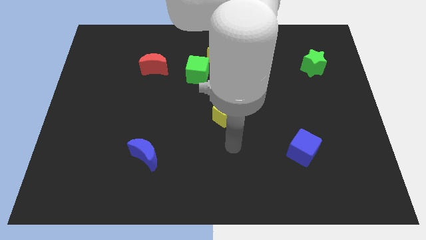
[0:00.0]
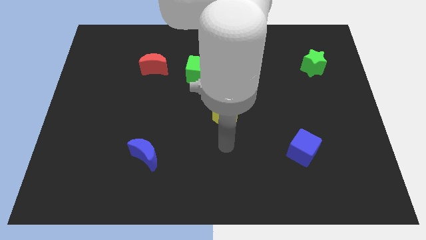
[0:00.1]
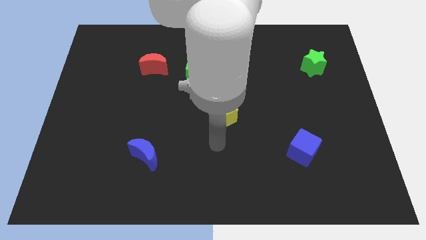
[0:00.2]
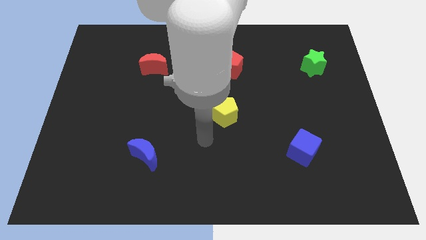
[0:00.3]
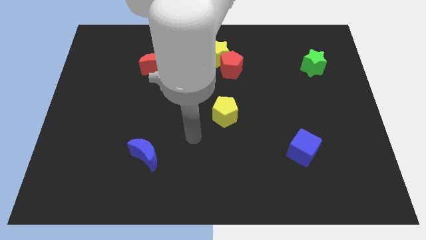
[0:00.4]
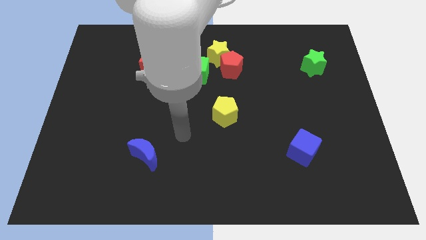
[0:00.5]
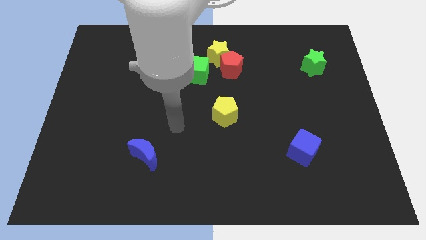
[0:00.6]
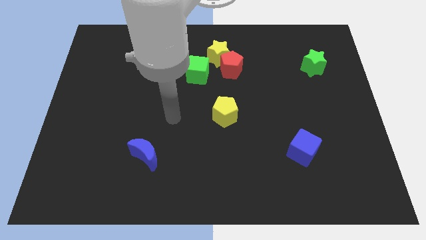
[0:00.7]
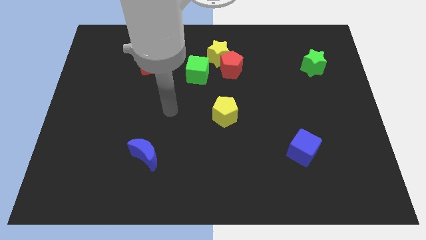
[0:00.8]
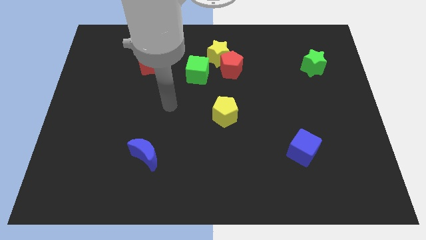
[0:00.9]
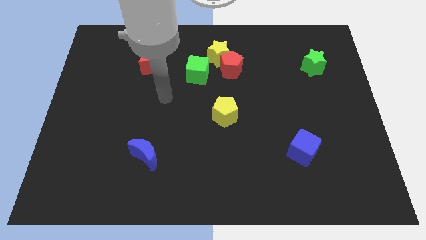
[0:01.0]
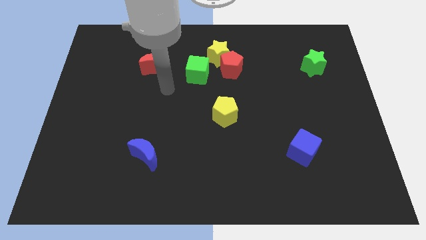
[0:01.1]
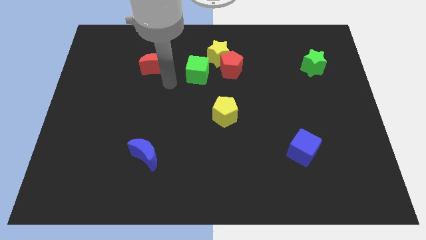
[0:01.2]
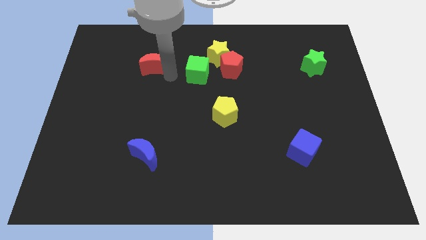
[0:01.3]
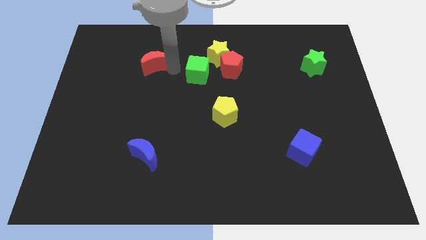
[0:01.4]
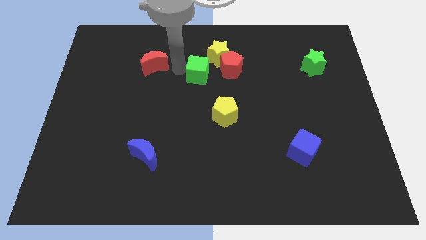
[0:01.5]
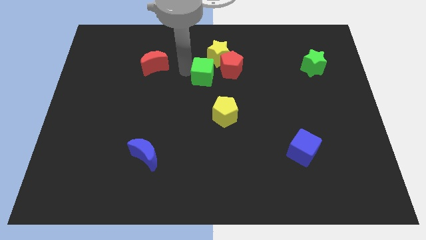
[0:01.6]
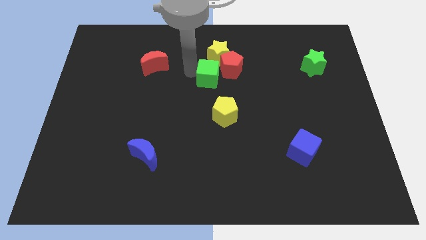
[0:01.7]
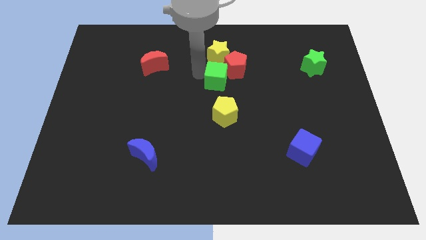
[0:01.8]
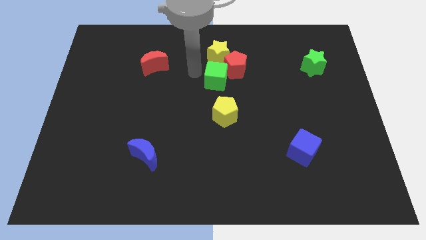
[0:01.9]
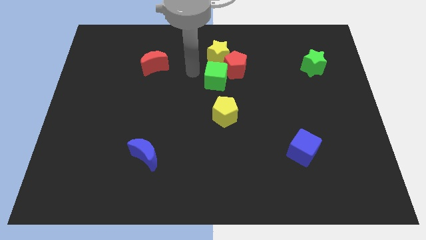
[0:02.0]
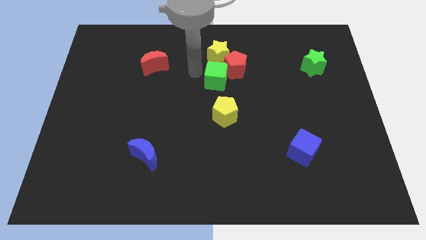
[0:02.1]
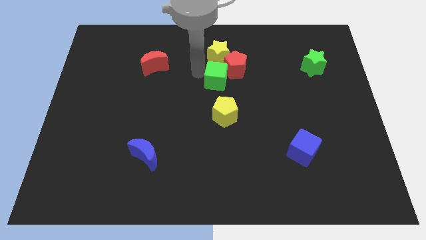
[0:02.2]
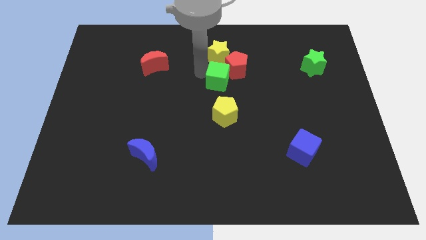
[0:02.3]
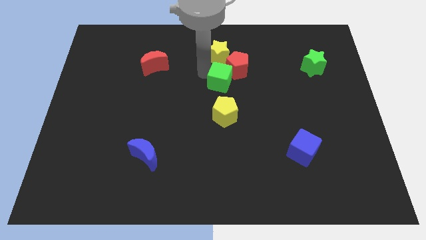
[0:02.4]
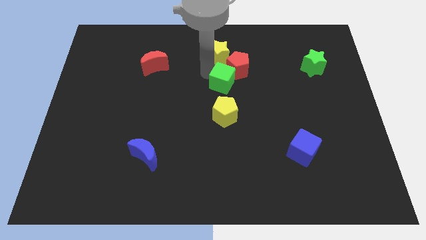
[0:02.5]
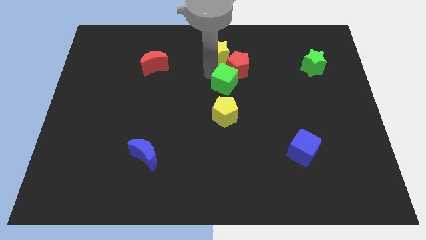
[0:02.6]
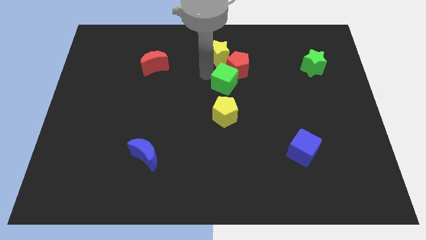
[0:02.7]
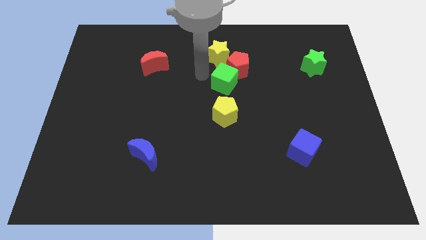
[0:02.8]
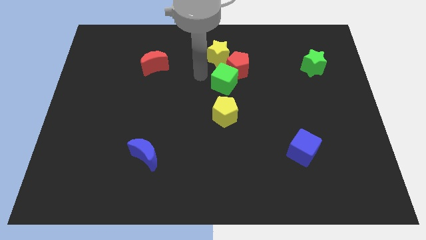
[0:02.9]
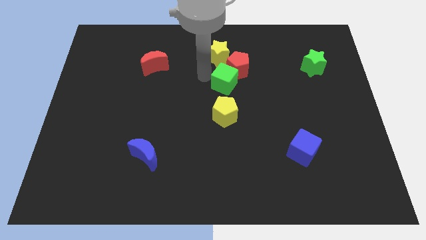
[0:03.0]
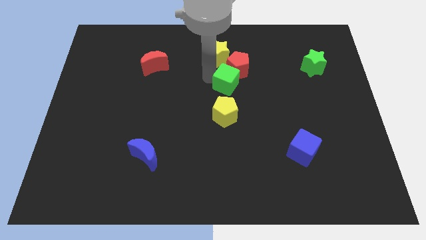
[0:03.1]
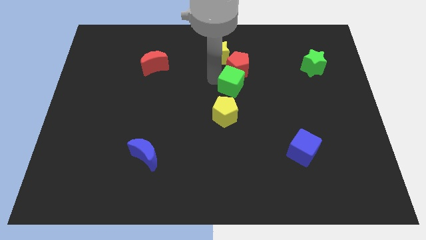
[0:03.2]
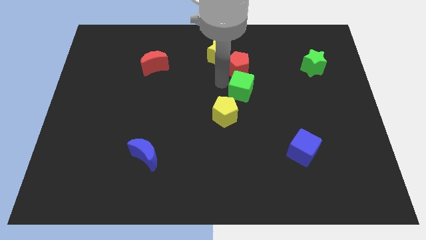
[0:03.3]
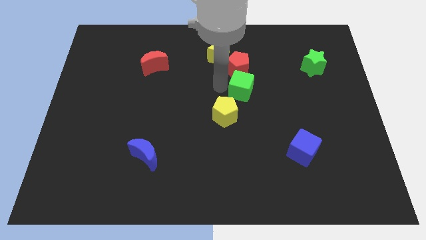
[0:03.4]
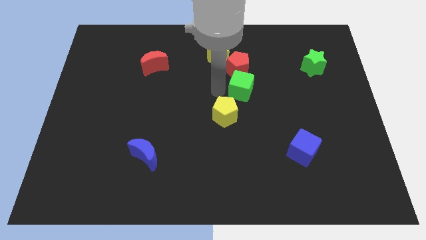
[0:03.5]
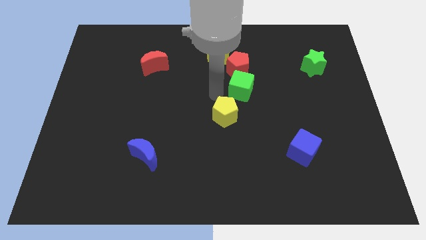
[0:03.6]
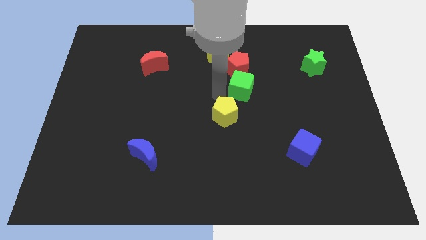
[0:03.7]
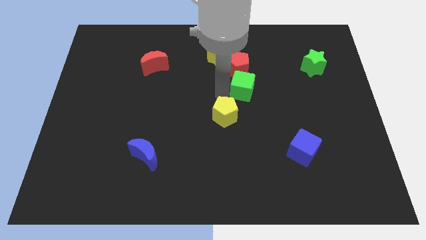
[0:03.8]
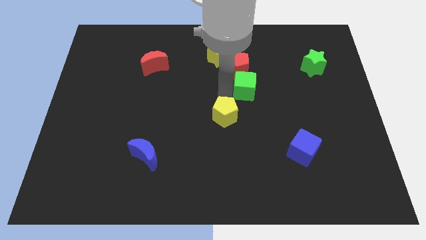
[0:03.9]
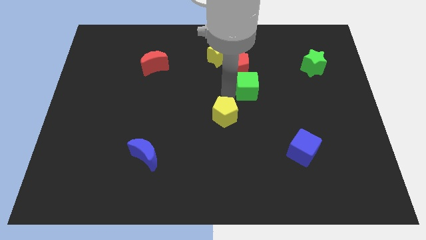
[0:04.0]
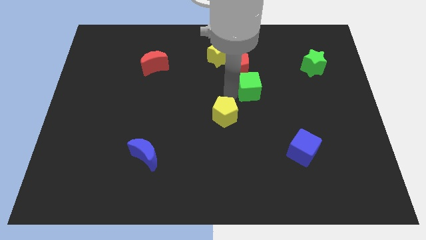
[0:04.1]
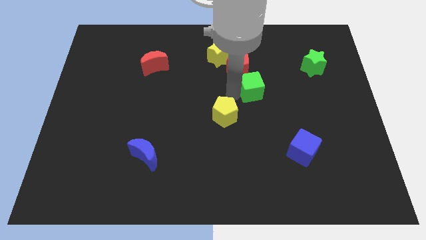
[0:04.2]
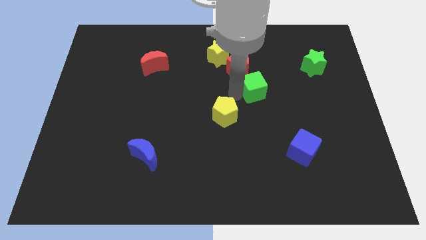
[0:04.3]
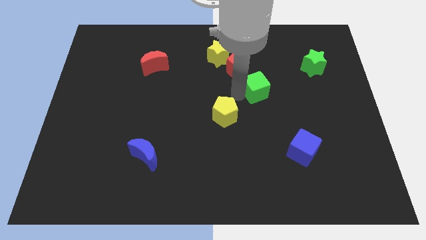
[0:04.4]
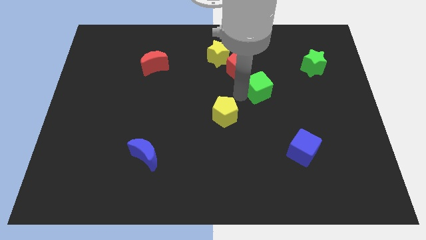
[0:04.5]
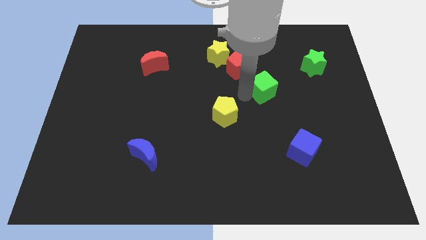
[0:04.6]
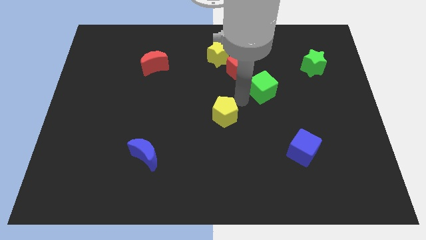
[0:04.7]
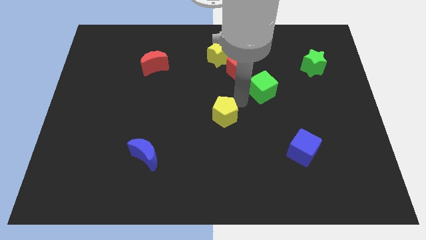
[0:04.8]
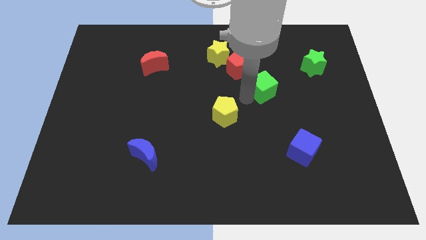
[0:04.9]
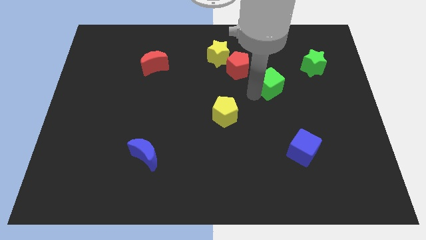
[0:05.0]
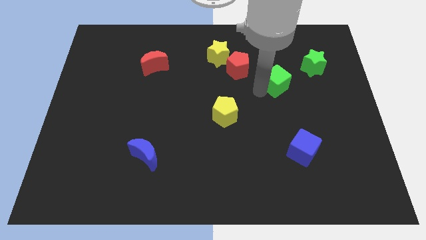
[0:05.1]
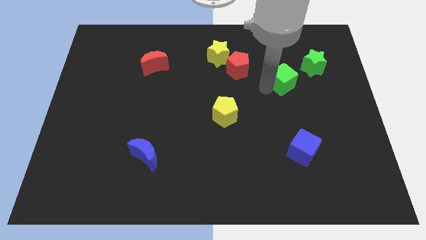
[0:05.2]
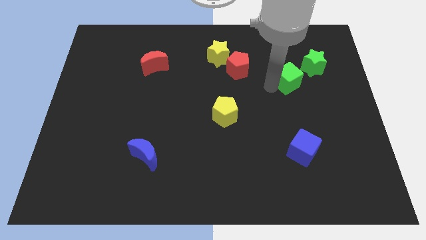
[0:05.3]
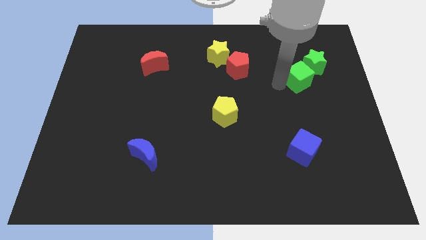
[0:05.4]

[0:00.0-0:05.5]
move the green cube next to the green star

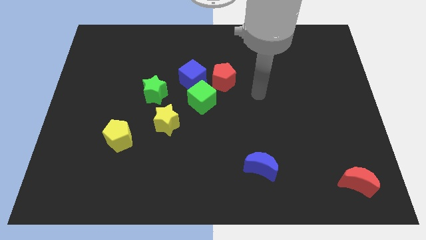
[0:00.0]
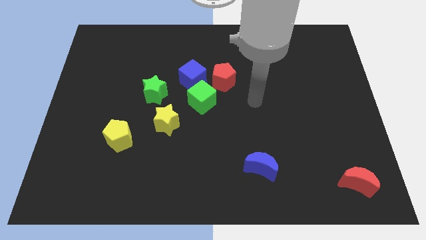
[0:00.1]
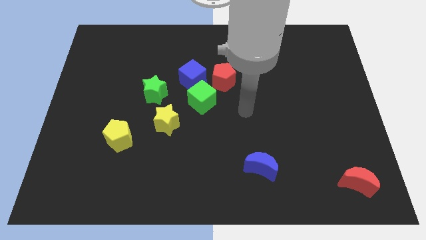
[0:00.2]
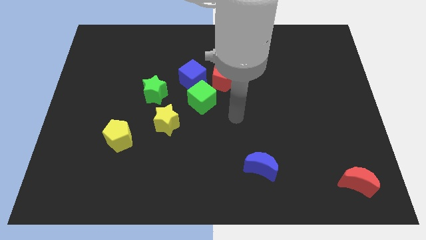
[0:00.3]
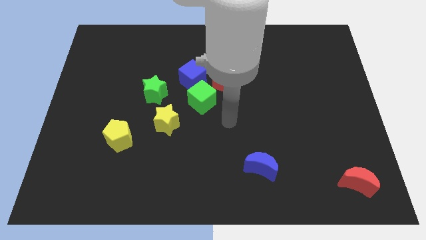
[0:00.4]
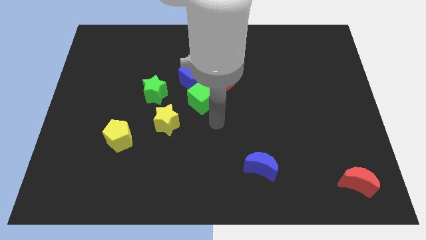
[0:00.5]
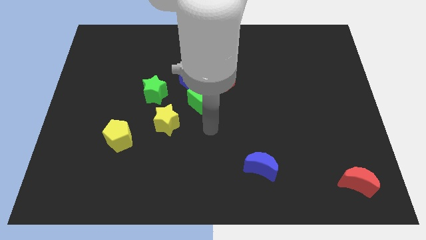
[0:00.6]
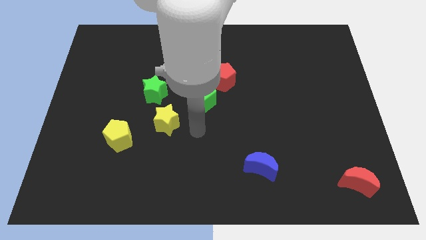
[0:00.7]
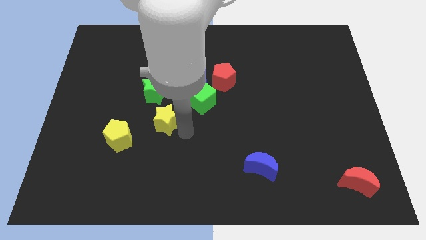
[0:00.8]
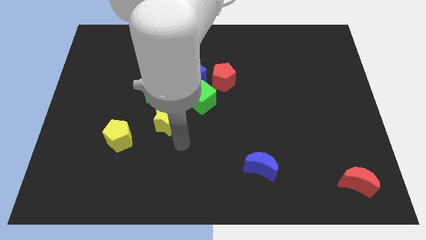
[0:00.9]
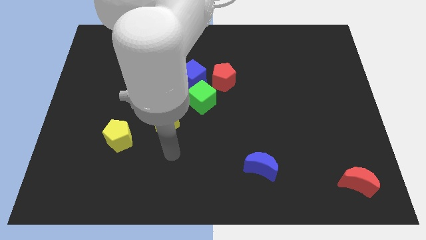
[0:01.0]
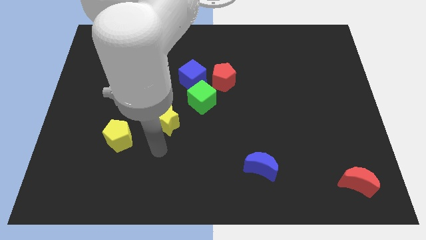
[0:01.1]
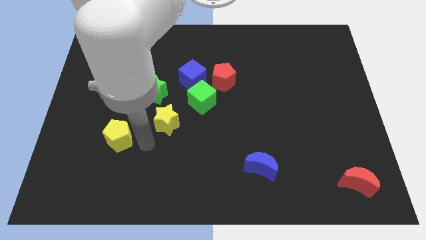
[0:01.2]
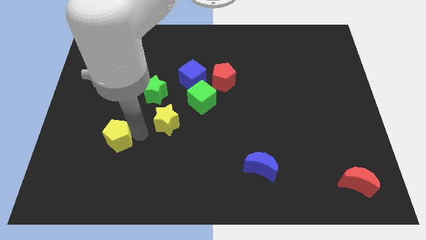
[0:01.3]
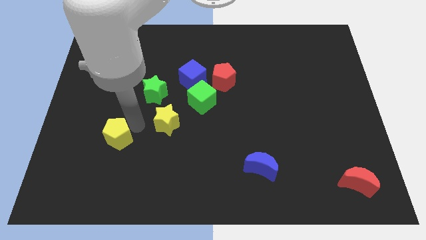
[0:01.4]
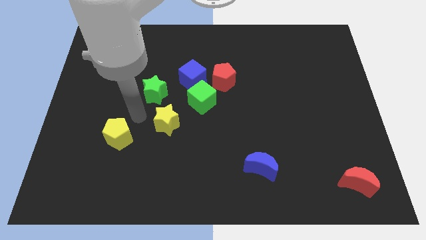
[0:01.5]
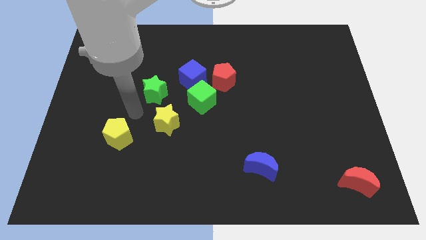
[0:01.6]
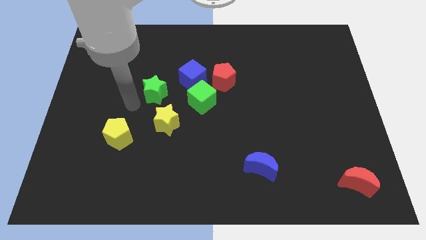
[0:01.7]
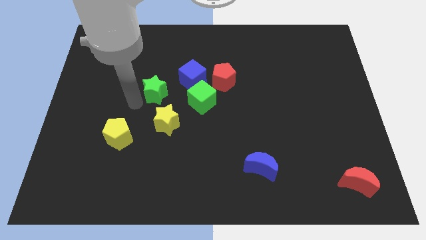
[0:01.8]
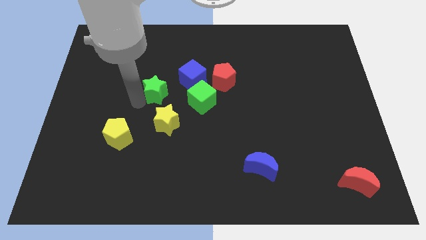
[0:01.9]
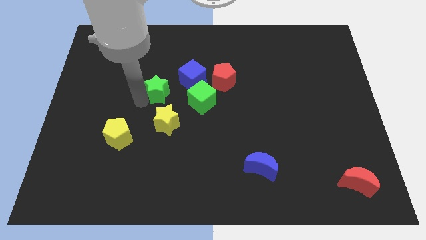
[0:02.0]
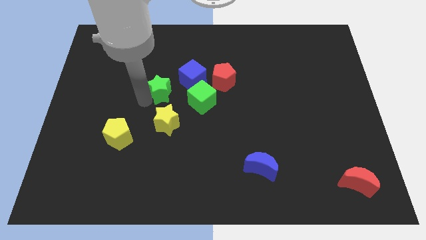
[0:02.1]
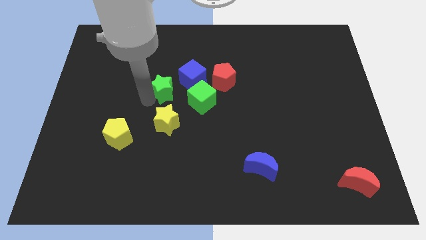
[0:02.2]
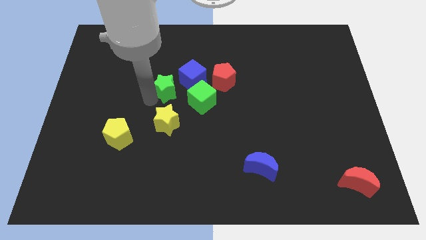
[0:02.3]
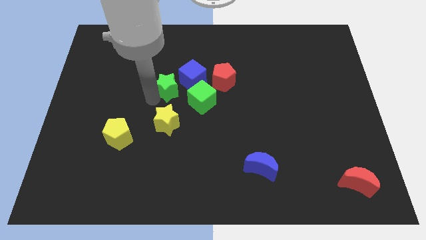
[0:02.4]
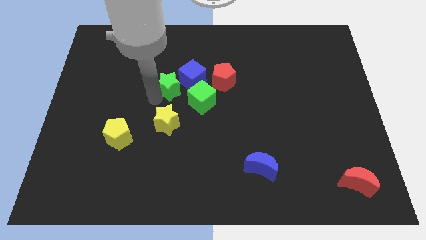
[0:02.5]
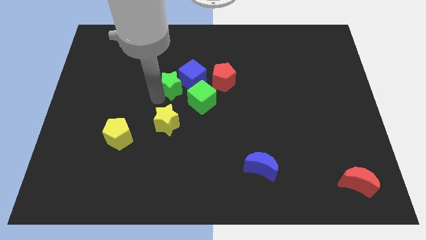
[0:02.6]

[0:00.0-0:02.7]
put the green star next to the blue cube
